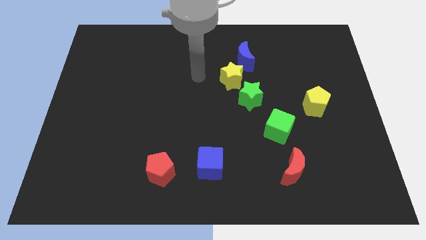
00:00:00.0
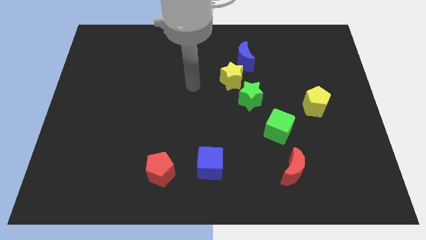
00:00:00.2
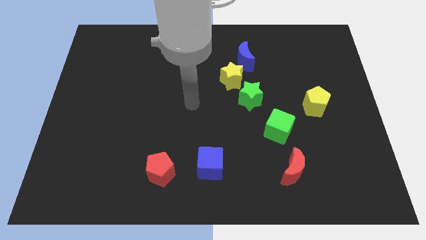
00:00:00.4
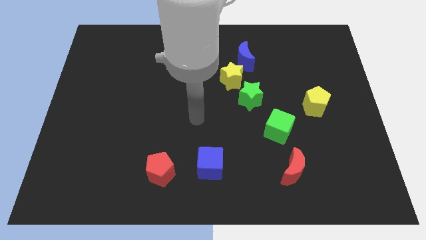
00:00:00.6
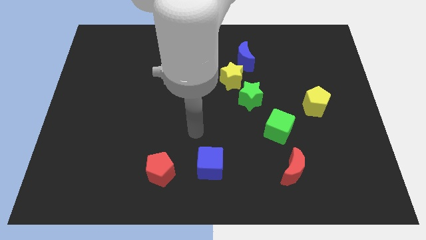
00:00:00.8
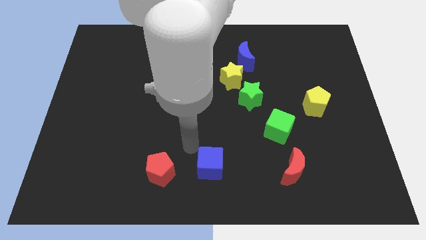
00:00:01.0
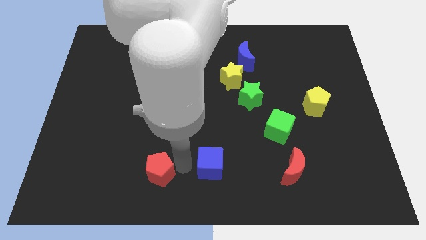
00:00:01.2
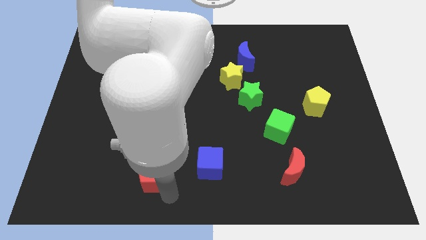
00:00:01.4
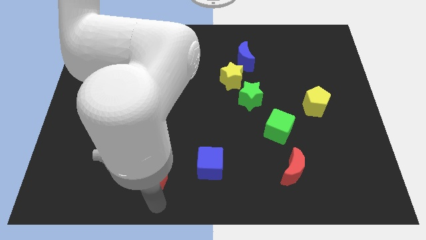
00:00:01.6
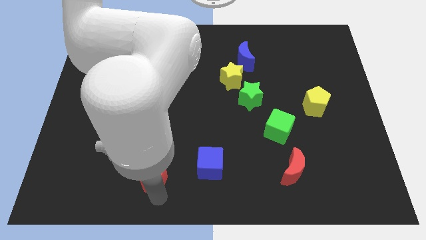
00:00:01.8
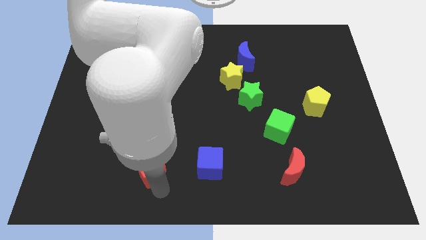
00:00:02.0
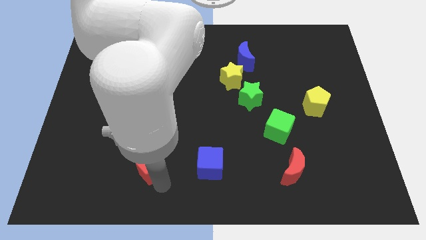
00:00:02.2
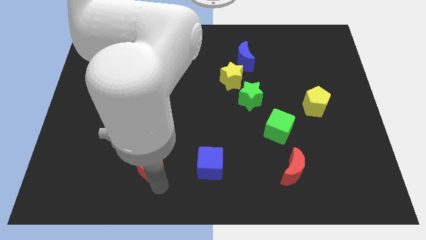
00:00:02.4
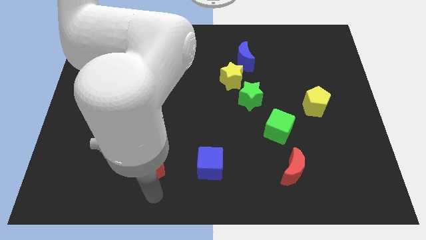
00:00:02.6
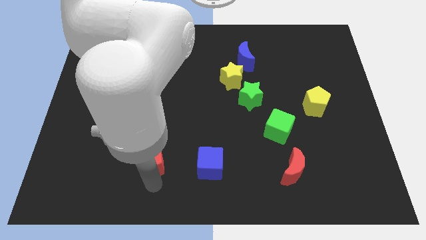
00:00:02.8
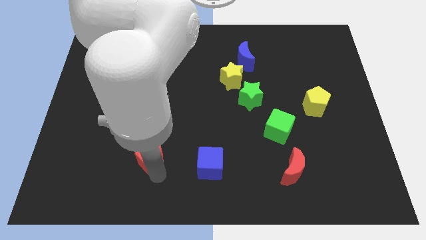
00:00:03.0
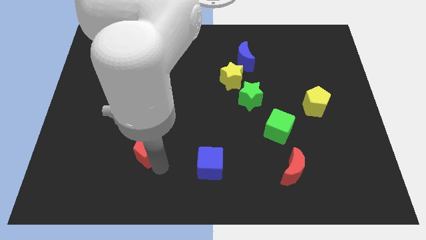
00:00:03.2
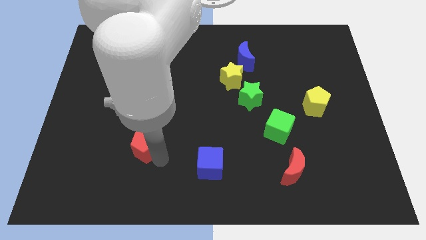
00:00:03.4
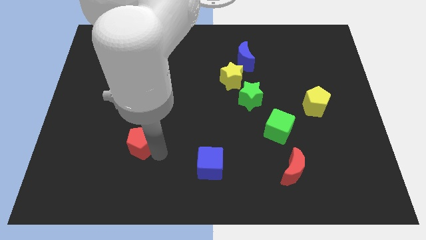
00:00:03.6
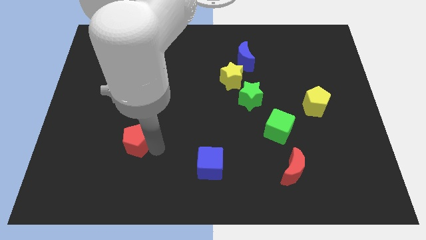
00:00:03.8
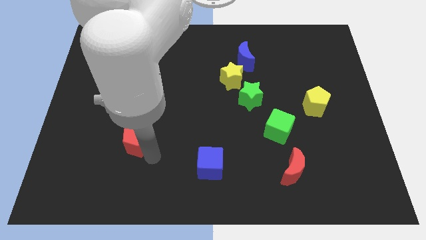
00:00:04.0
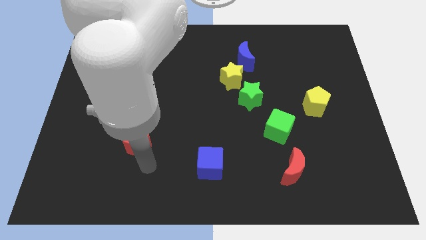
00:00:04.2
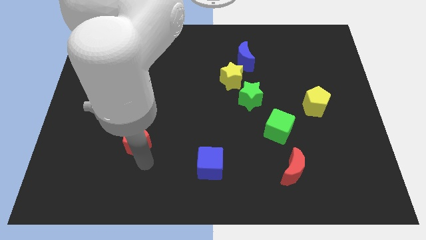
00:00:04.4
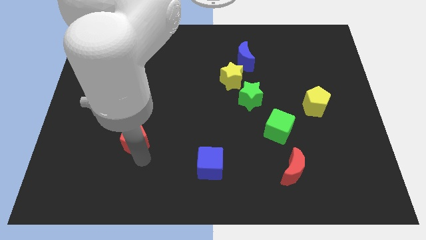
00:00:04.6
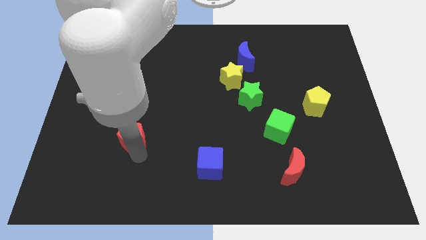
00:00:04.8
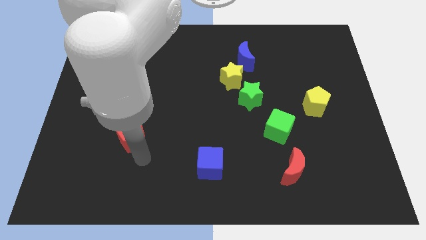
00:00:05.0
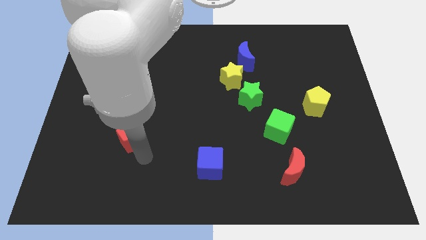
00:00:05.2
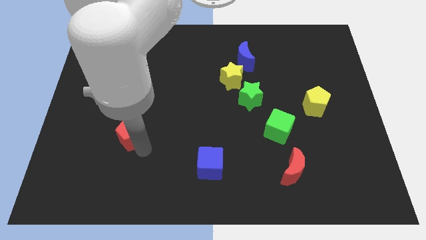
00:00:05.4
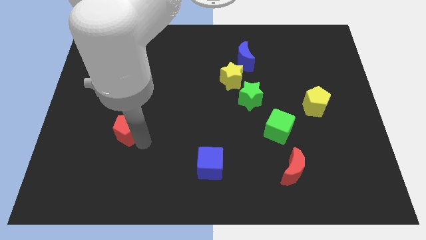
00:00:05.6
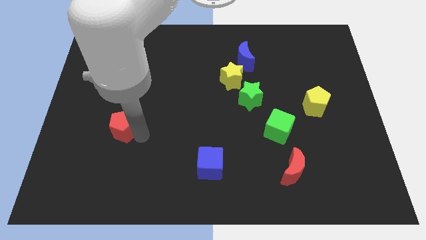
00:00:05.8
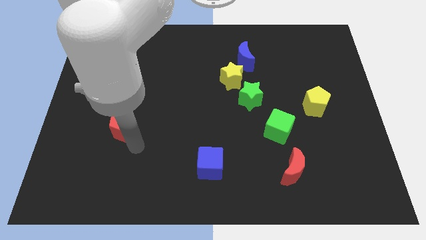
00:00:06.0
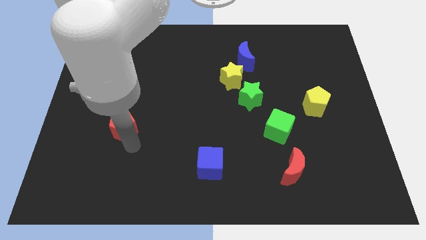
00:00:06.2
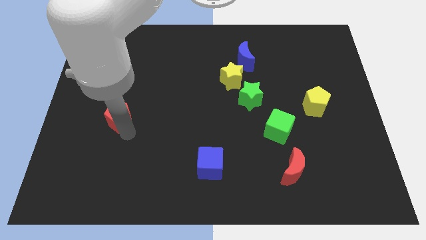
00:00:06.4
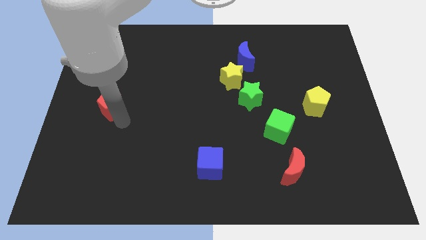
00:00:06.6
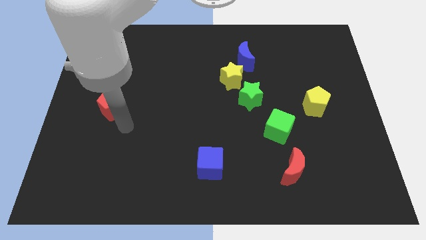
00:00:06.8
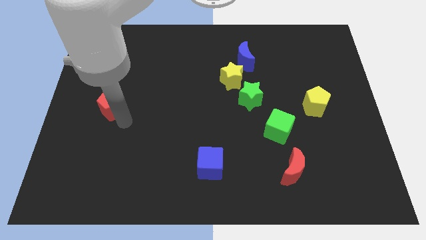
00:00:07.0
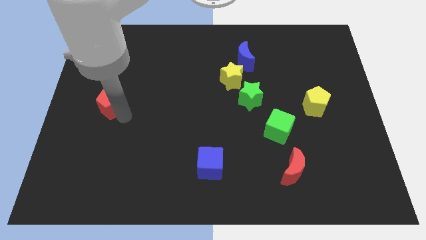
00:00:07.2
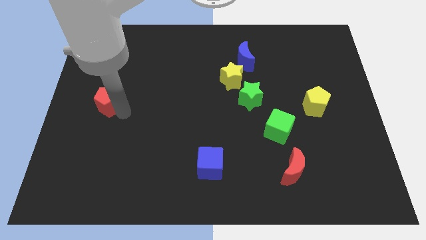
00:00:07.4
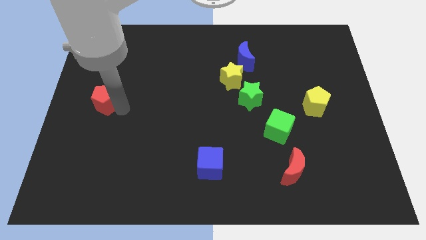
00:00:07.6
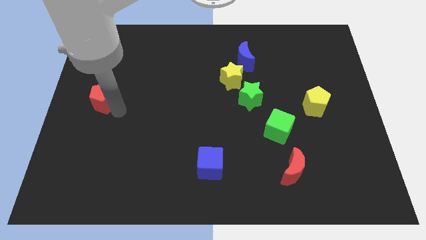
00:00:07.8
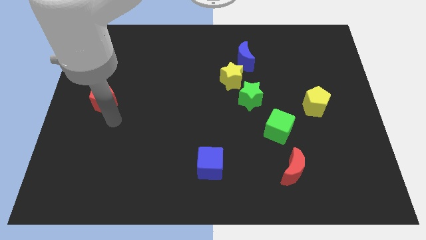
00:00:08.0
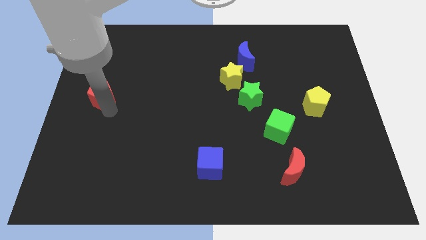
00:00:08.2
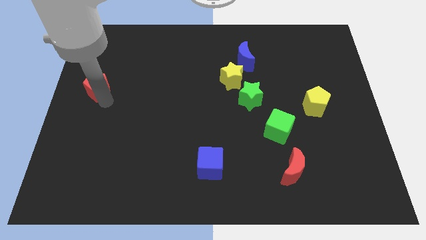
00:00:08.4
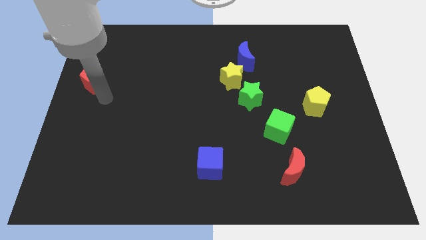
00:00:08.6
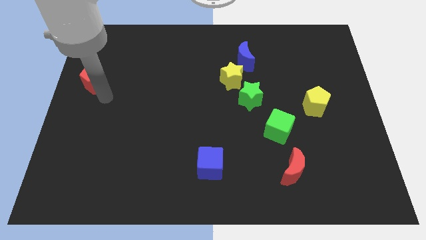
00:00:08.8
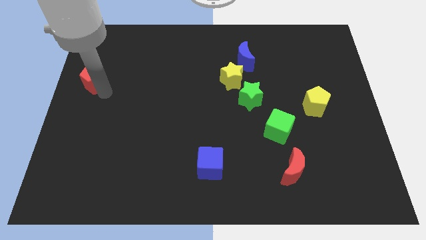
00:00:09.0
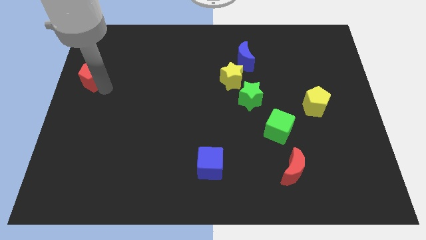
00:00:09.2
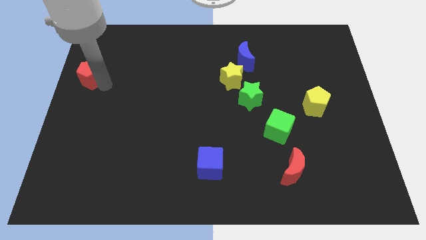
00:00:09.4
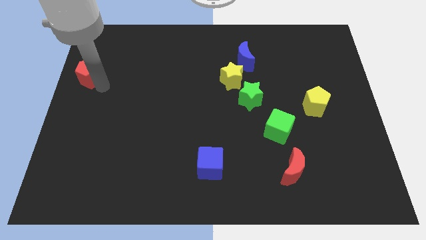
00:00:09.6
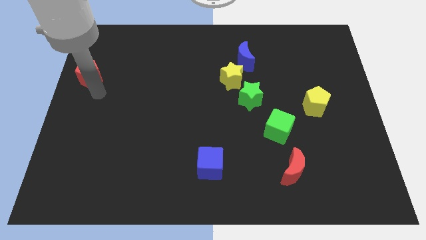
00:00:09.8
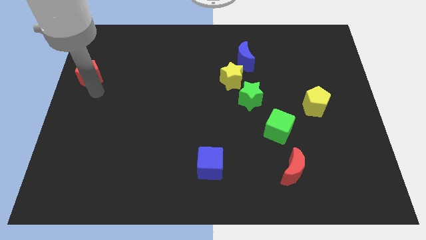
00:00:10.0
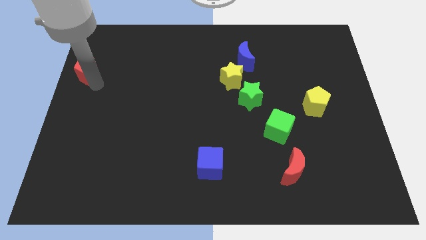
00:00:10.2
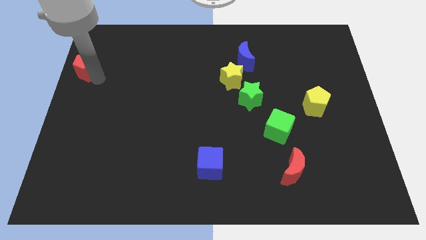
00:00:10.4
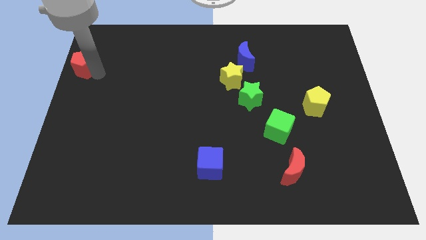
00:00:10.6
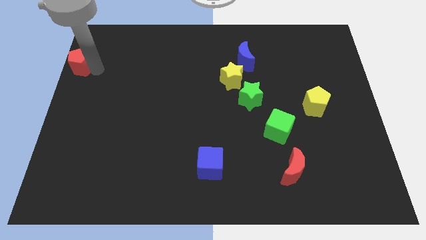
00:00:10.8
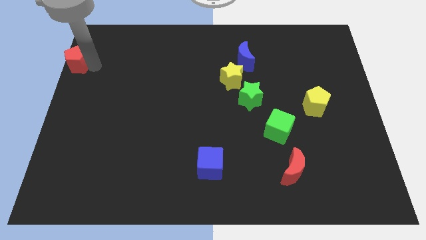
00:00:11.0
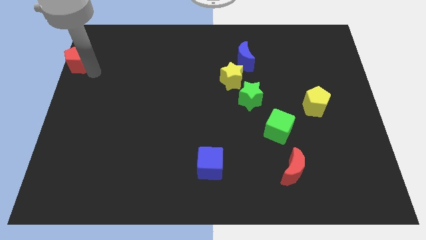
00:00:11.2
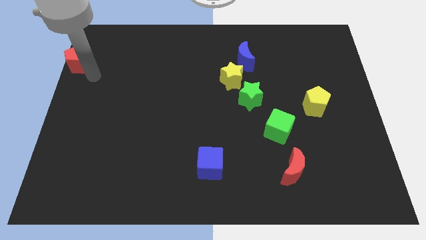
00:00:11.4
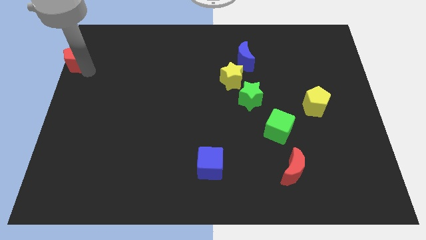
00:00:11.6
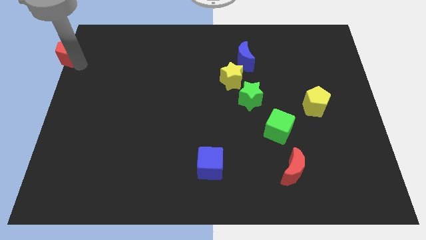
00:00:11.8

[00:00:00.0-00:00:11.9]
slide the red pentagon to the upper left corner

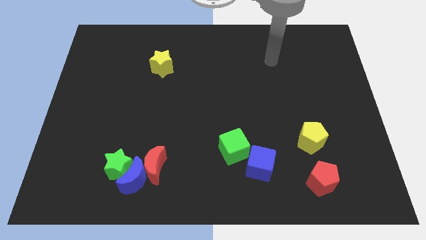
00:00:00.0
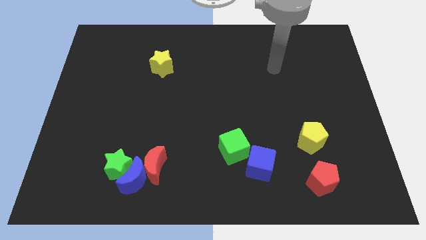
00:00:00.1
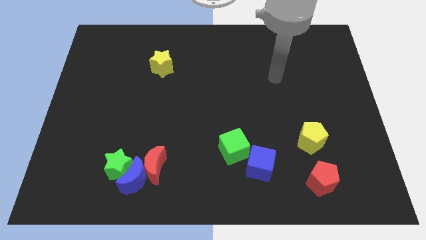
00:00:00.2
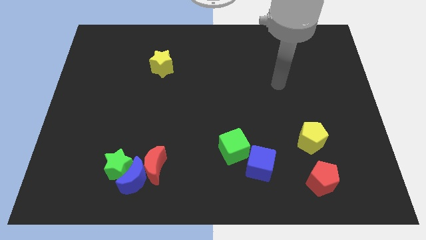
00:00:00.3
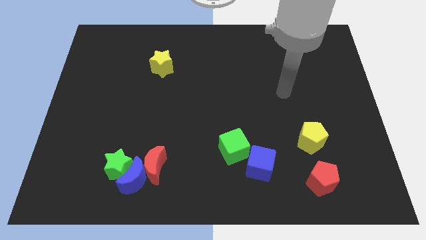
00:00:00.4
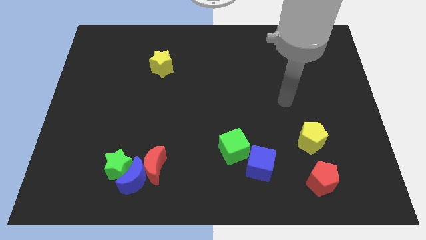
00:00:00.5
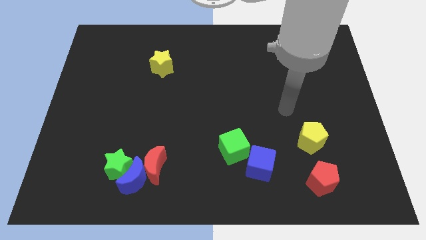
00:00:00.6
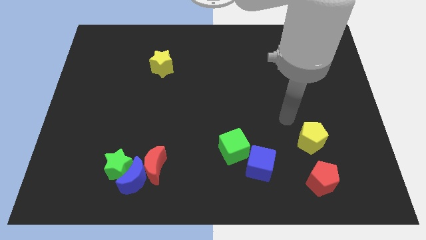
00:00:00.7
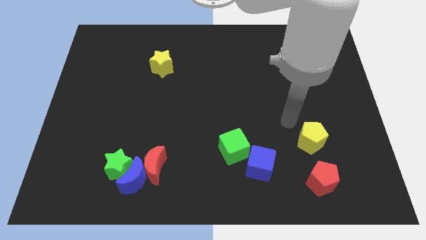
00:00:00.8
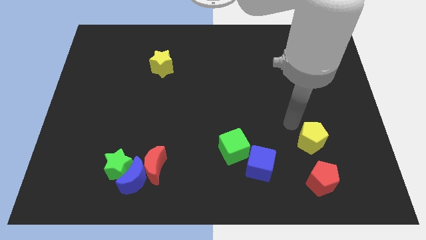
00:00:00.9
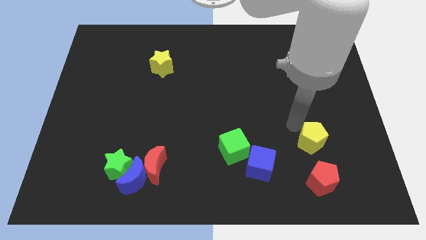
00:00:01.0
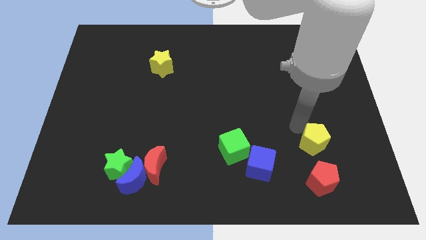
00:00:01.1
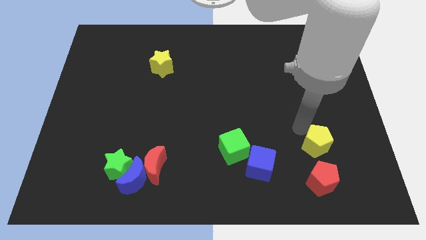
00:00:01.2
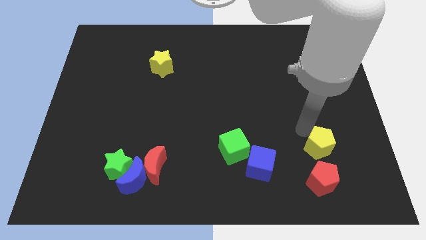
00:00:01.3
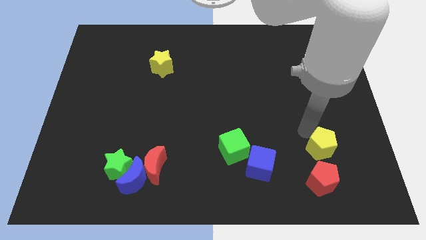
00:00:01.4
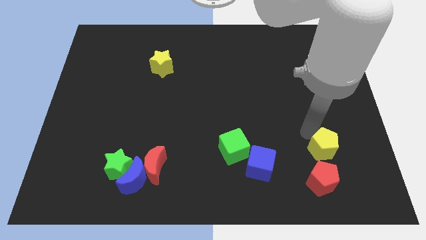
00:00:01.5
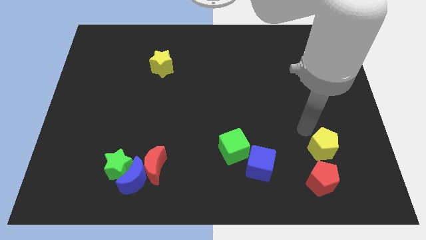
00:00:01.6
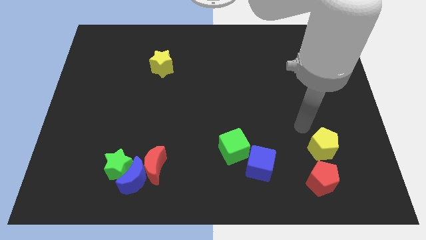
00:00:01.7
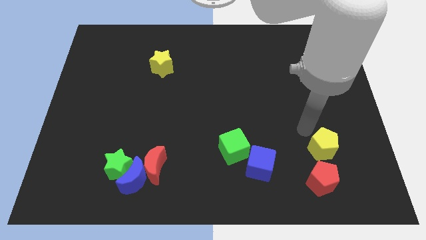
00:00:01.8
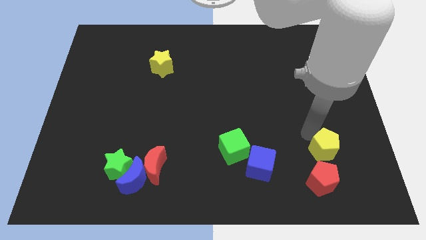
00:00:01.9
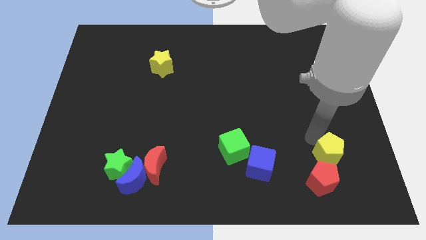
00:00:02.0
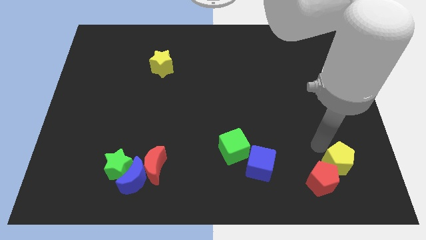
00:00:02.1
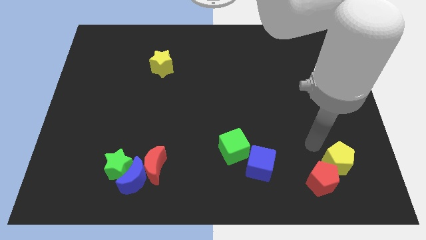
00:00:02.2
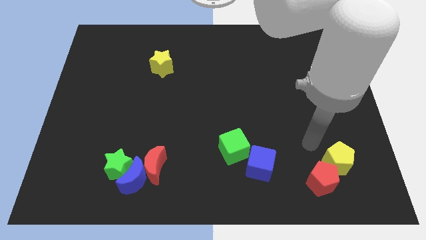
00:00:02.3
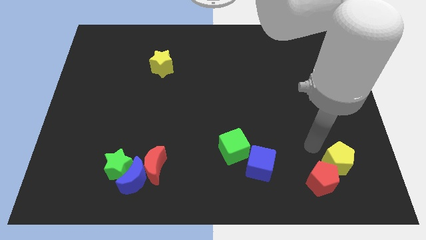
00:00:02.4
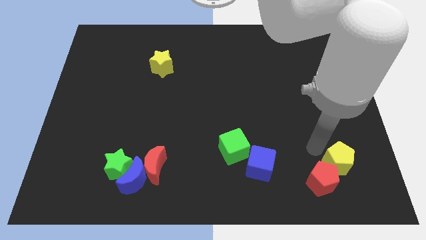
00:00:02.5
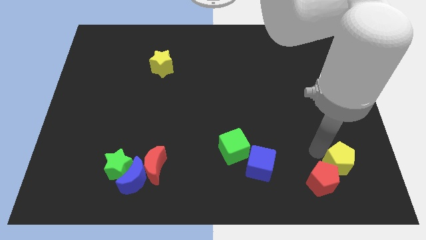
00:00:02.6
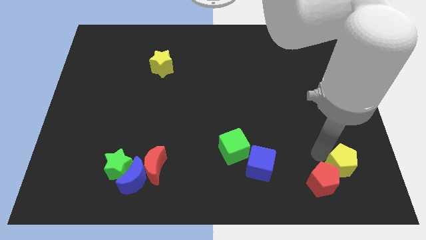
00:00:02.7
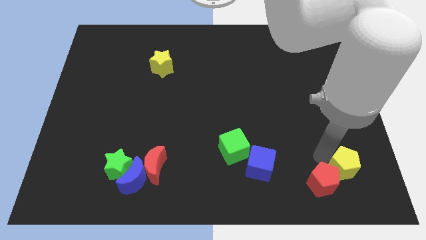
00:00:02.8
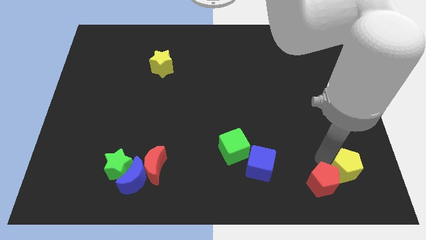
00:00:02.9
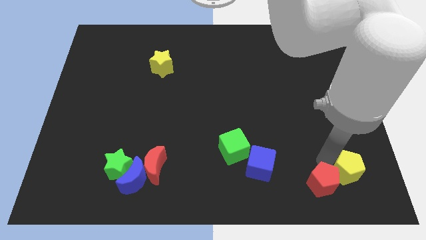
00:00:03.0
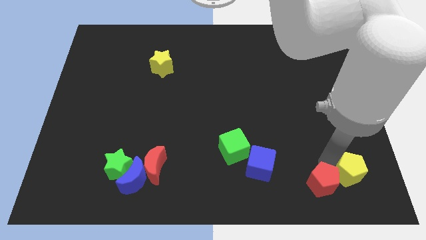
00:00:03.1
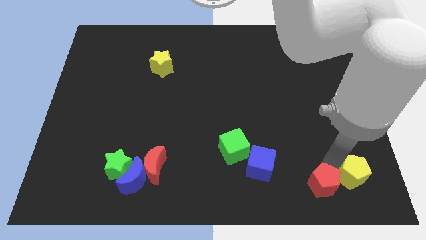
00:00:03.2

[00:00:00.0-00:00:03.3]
slide the yellow pentagon to the lower right corner
